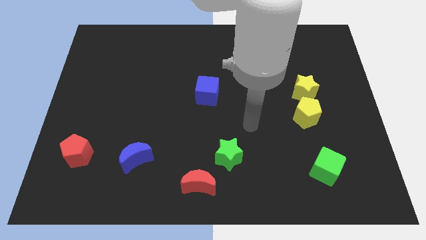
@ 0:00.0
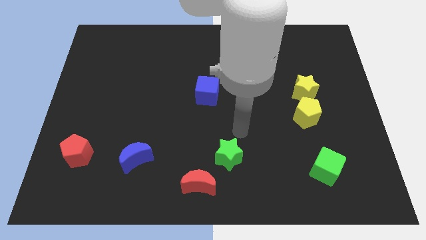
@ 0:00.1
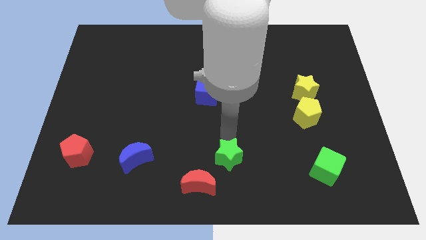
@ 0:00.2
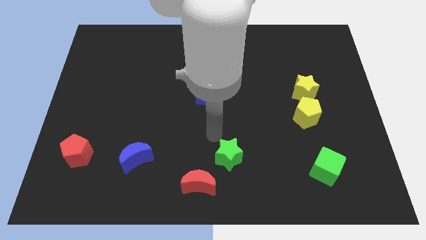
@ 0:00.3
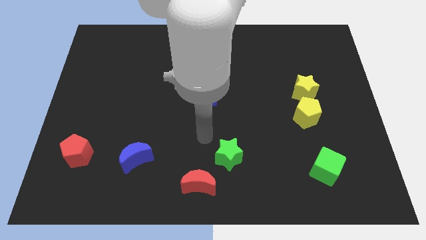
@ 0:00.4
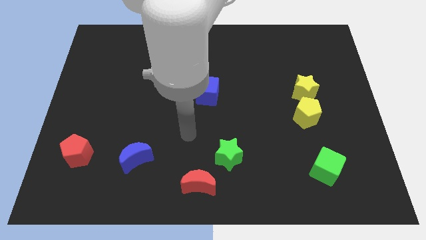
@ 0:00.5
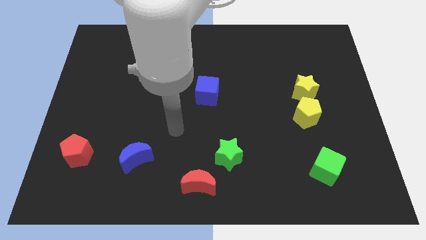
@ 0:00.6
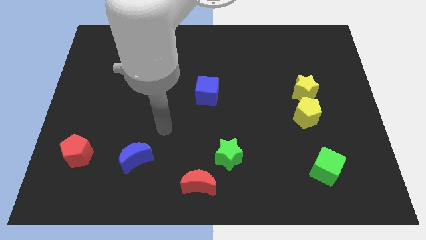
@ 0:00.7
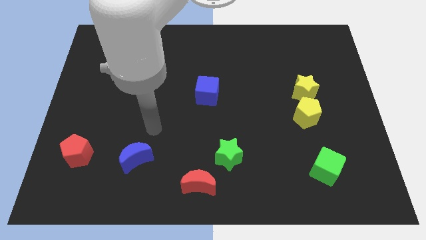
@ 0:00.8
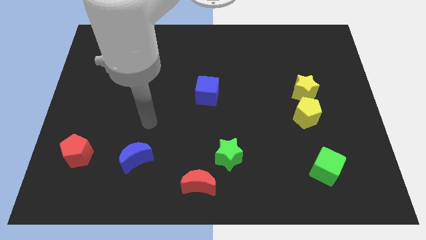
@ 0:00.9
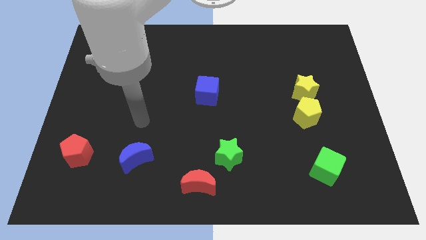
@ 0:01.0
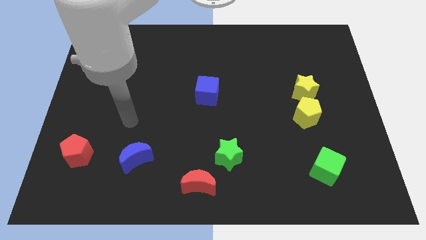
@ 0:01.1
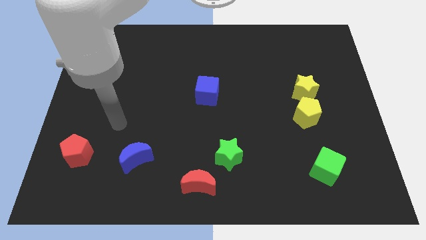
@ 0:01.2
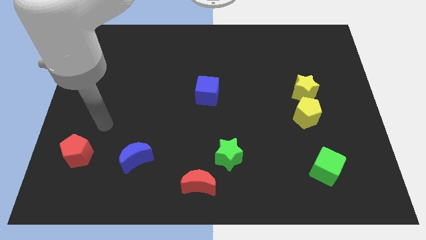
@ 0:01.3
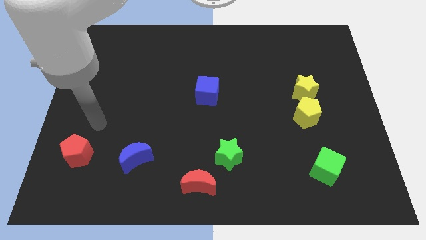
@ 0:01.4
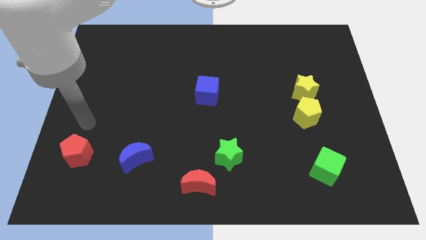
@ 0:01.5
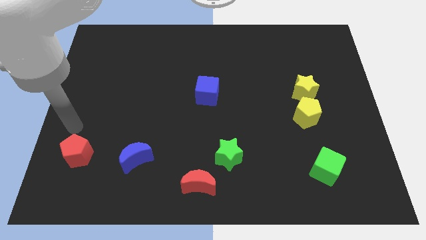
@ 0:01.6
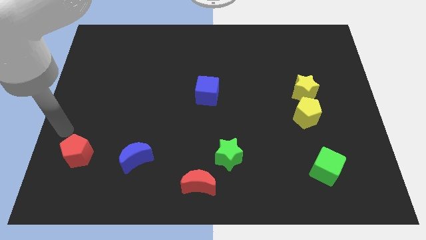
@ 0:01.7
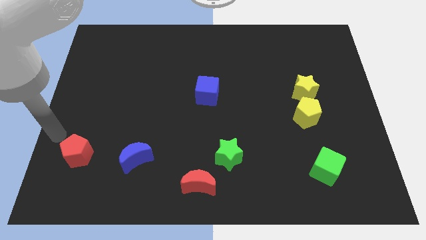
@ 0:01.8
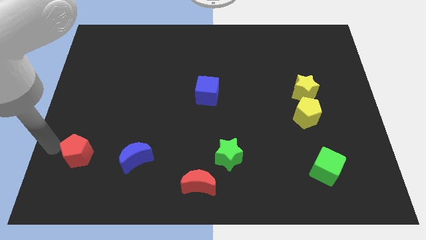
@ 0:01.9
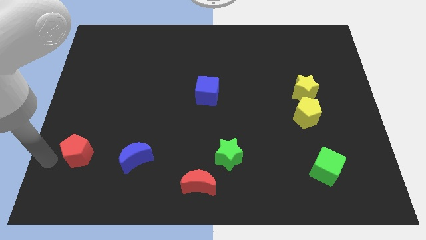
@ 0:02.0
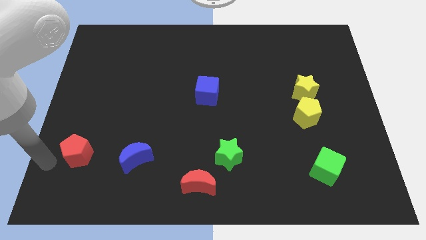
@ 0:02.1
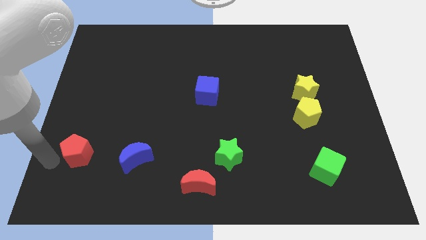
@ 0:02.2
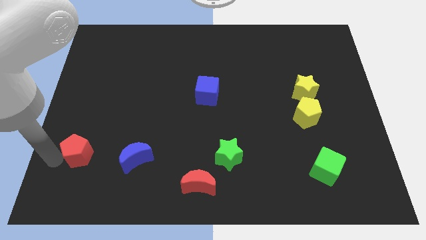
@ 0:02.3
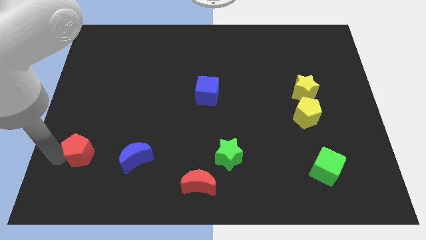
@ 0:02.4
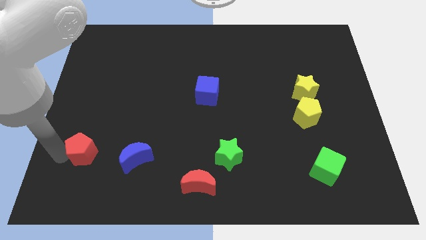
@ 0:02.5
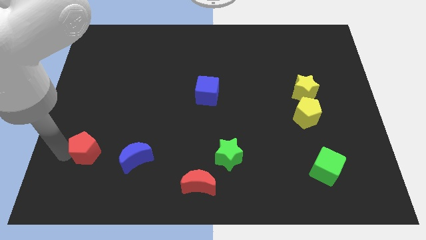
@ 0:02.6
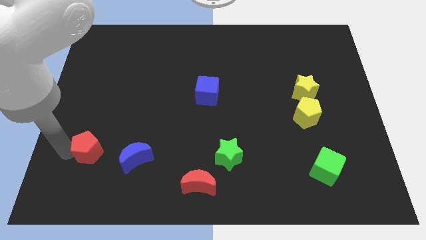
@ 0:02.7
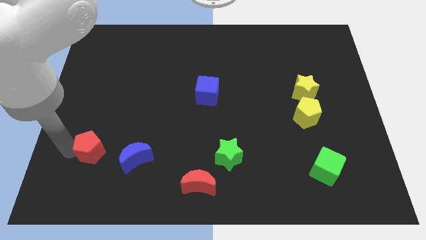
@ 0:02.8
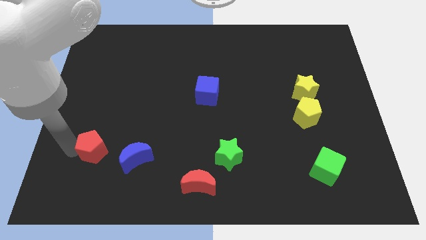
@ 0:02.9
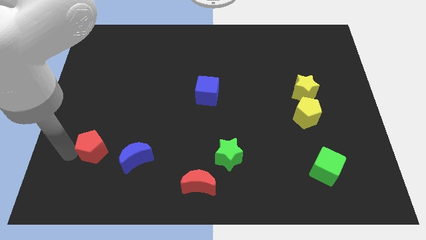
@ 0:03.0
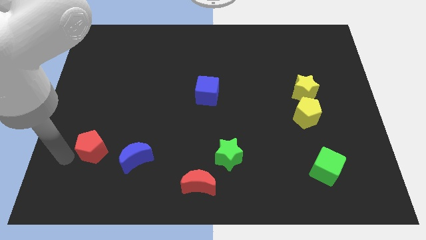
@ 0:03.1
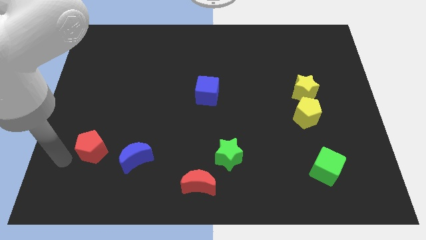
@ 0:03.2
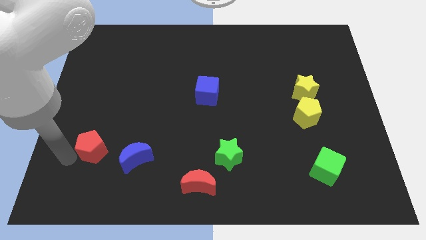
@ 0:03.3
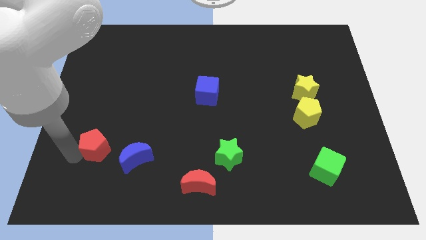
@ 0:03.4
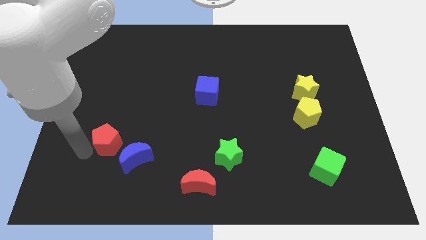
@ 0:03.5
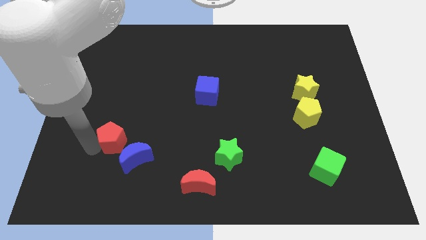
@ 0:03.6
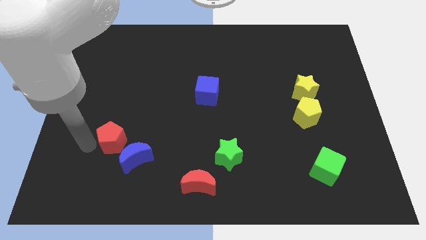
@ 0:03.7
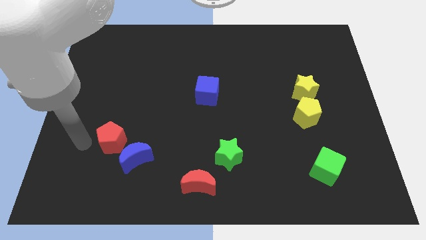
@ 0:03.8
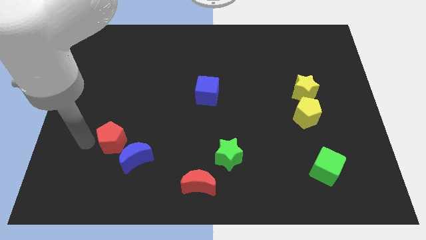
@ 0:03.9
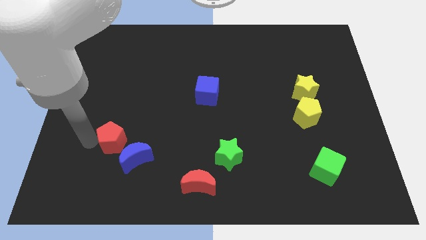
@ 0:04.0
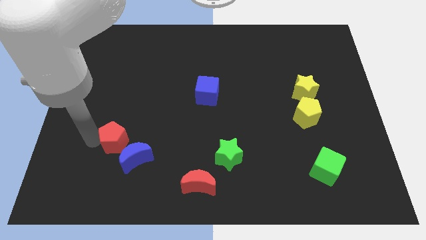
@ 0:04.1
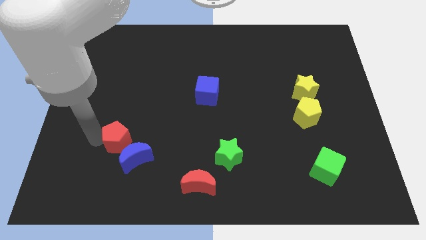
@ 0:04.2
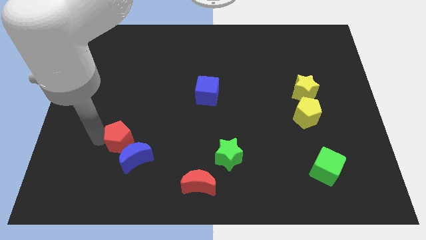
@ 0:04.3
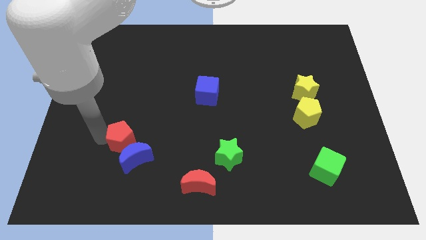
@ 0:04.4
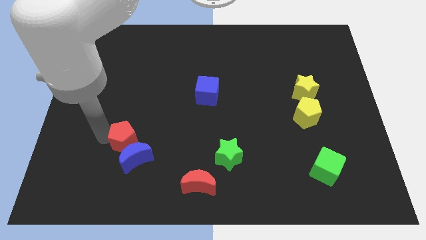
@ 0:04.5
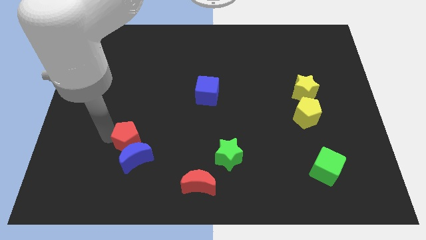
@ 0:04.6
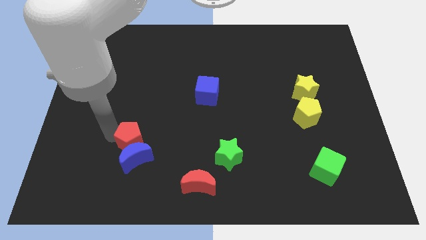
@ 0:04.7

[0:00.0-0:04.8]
put the red pentagon to the top right side of the blue moon

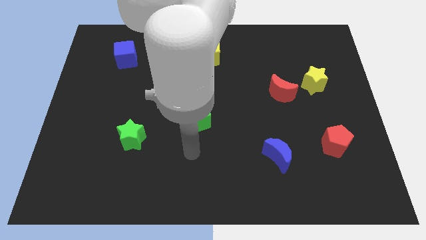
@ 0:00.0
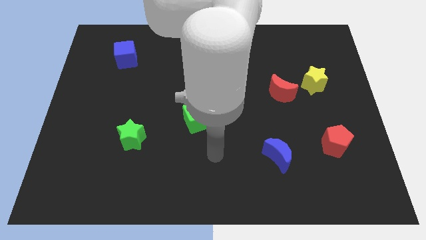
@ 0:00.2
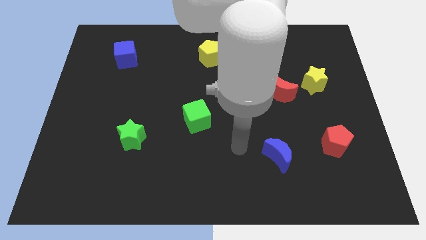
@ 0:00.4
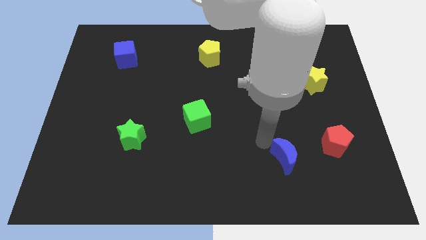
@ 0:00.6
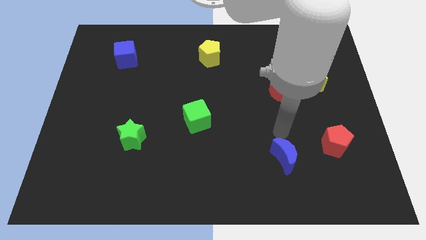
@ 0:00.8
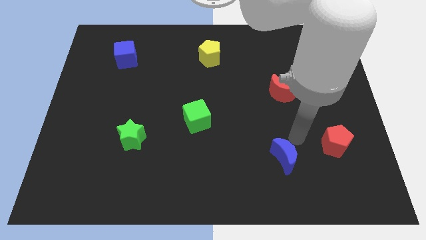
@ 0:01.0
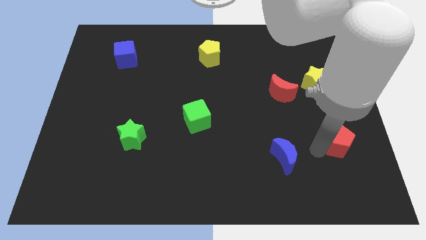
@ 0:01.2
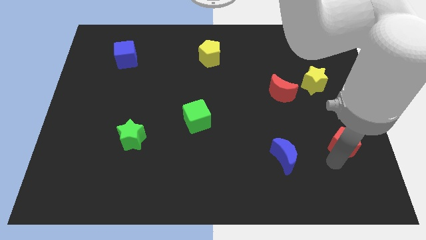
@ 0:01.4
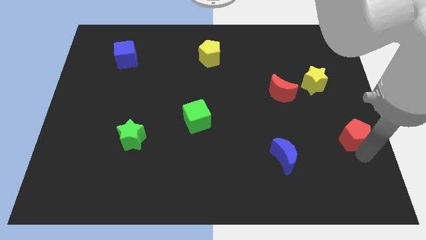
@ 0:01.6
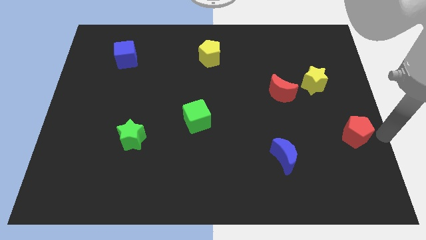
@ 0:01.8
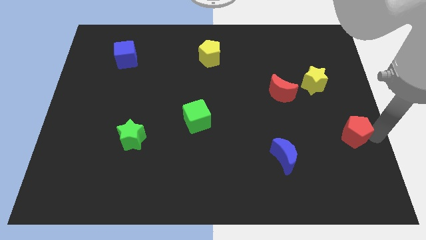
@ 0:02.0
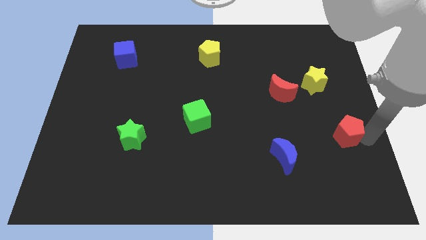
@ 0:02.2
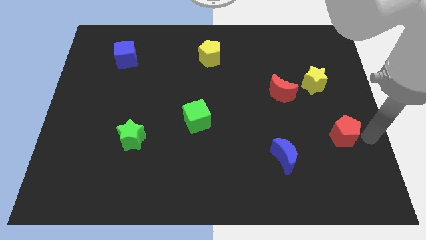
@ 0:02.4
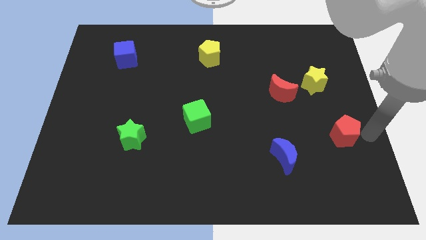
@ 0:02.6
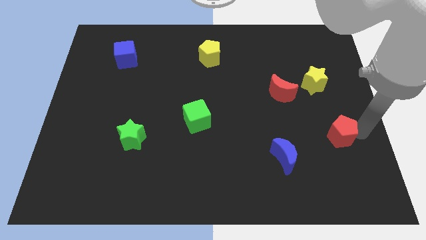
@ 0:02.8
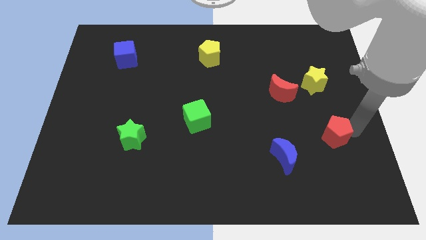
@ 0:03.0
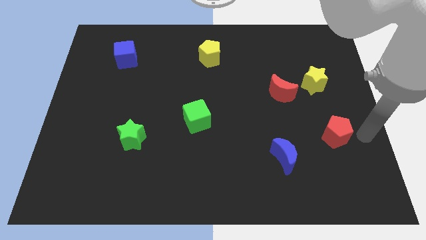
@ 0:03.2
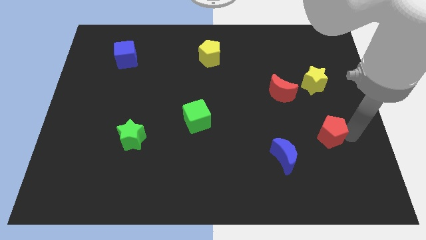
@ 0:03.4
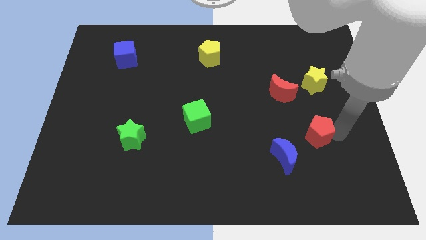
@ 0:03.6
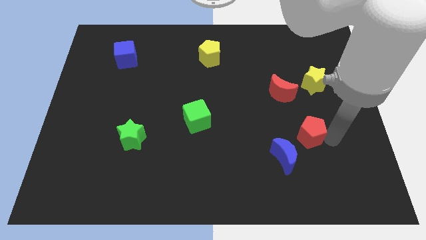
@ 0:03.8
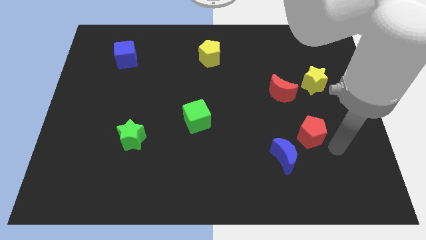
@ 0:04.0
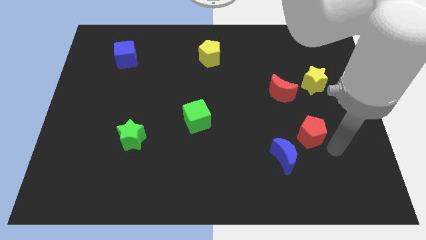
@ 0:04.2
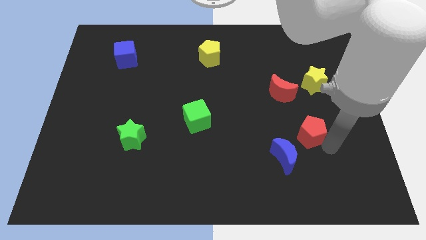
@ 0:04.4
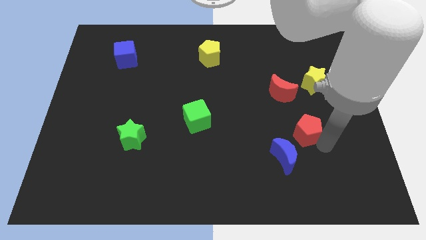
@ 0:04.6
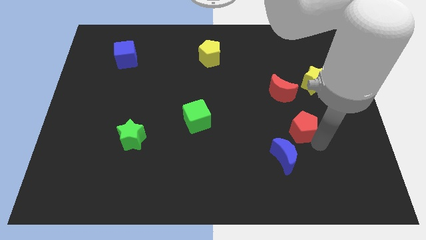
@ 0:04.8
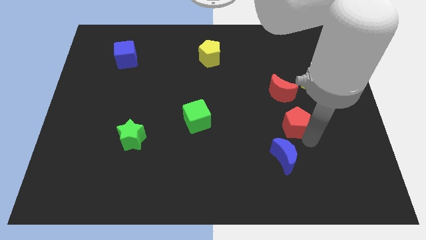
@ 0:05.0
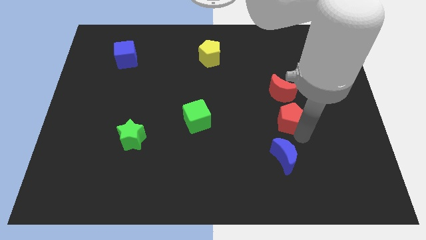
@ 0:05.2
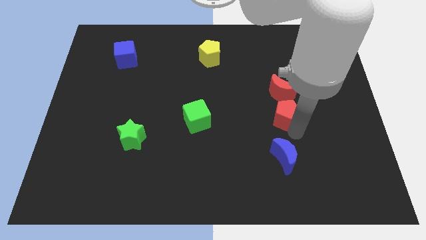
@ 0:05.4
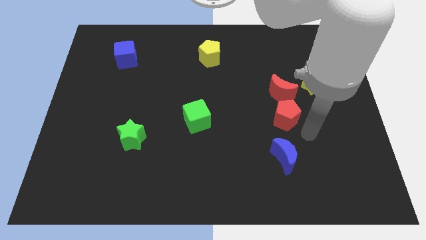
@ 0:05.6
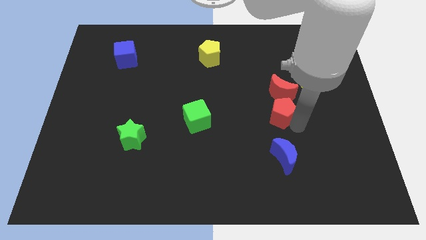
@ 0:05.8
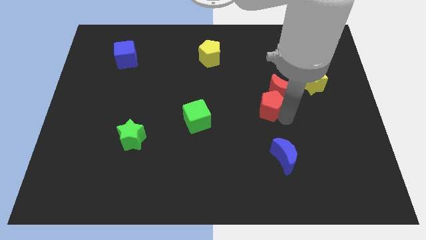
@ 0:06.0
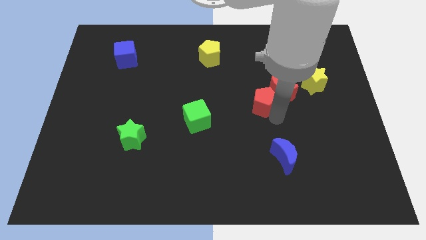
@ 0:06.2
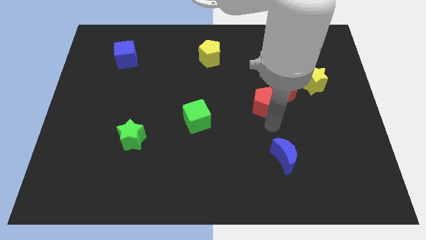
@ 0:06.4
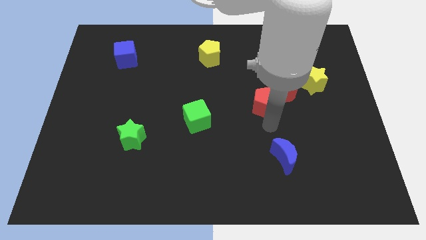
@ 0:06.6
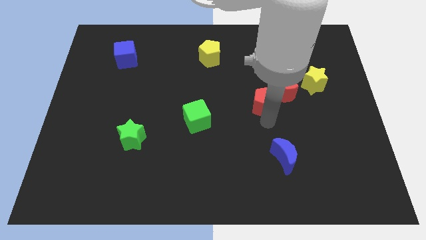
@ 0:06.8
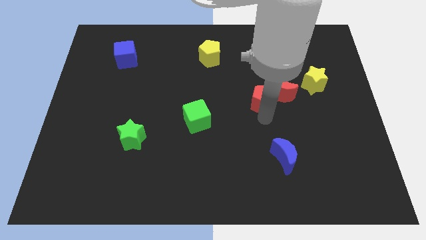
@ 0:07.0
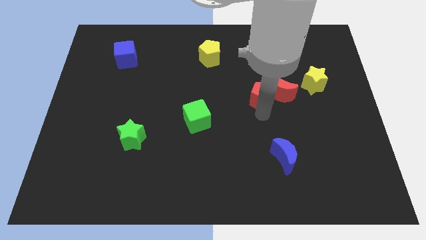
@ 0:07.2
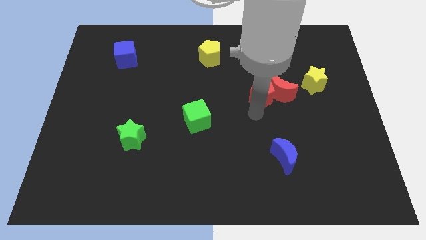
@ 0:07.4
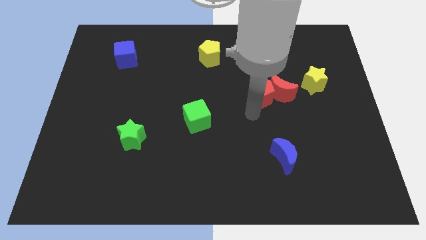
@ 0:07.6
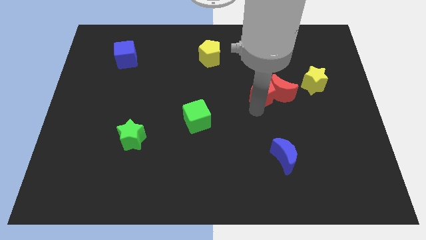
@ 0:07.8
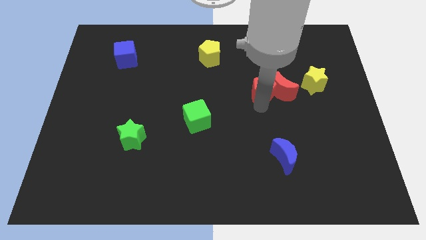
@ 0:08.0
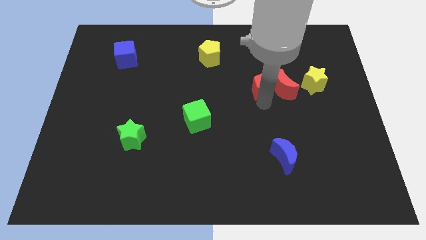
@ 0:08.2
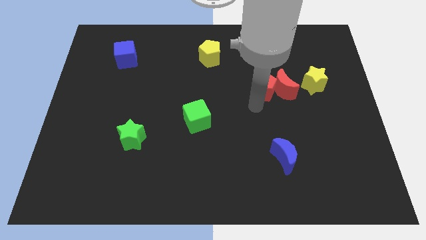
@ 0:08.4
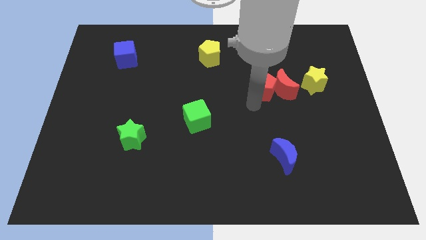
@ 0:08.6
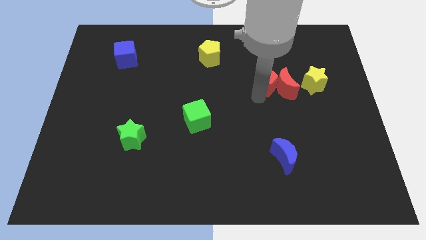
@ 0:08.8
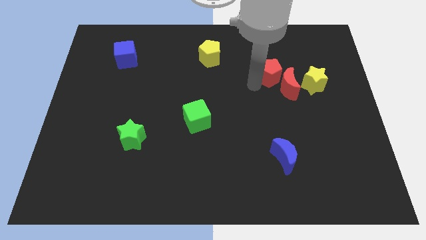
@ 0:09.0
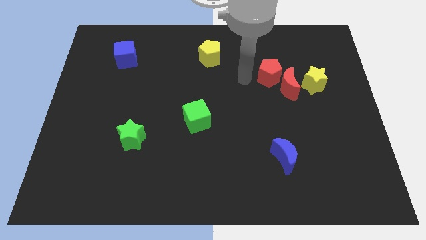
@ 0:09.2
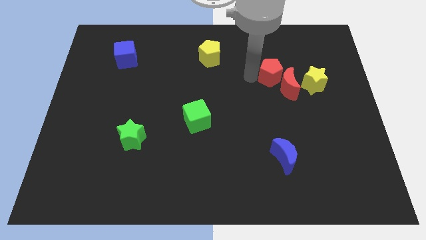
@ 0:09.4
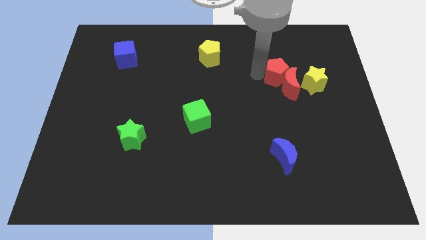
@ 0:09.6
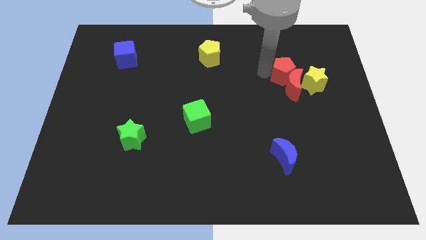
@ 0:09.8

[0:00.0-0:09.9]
slide the red pentagon to the top right of the red moon
